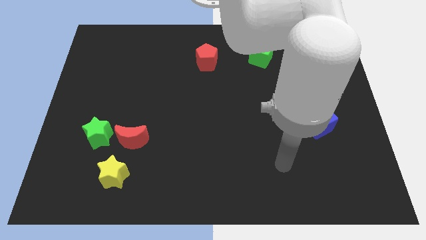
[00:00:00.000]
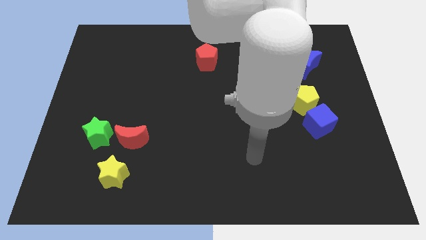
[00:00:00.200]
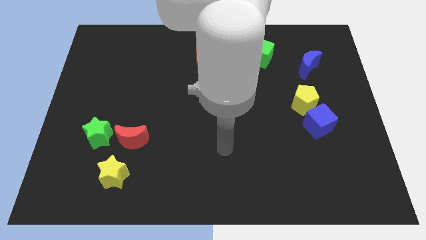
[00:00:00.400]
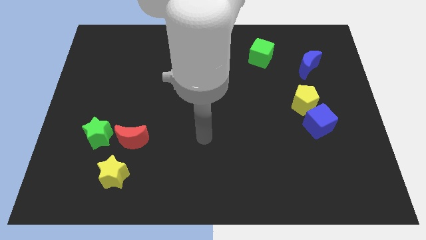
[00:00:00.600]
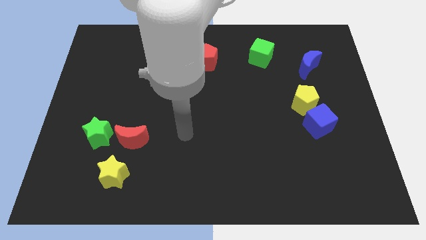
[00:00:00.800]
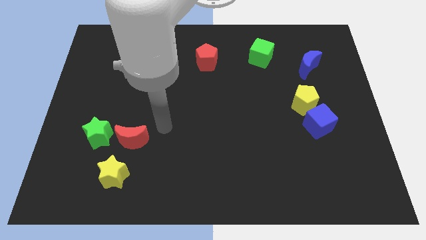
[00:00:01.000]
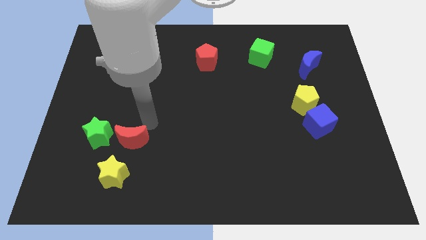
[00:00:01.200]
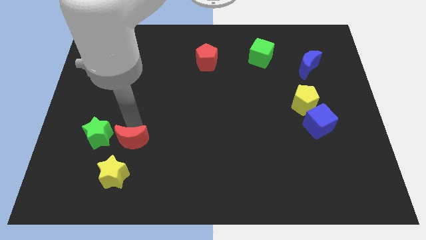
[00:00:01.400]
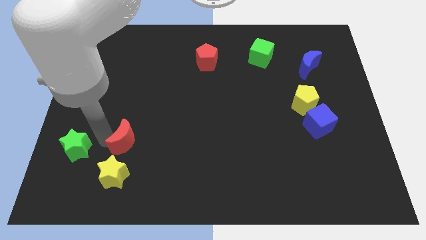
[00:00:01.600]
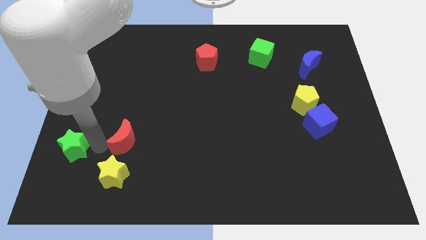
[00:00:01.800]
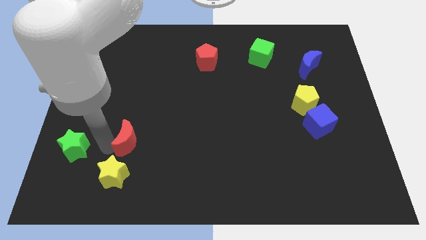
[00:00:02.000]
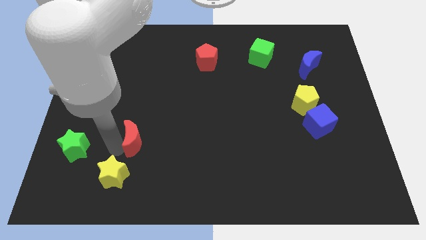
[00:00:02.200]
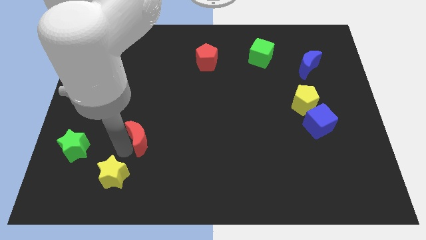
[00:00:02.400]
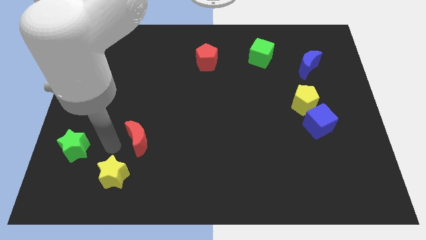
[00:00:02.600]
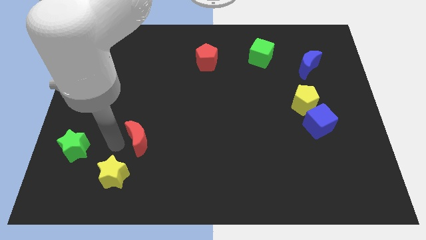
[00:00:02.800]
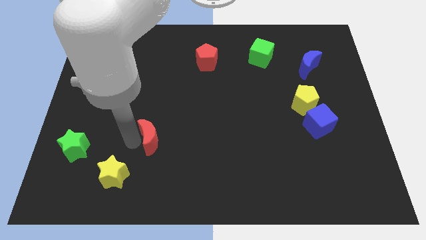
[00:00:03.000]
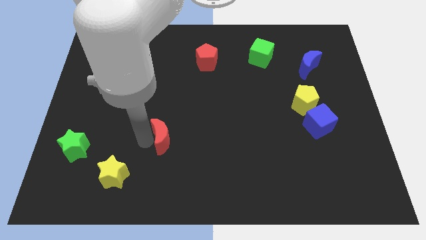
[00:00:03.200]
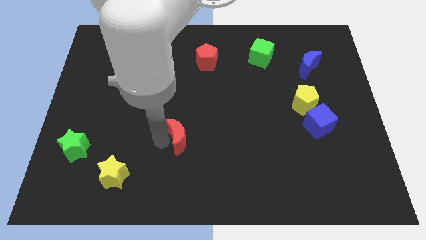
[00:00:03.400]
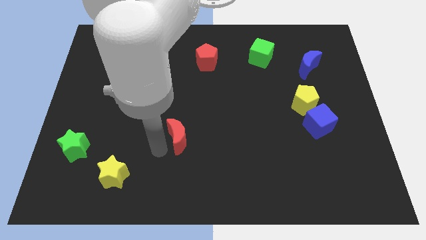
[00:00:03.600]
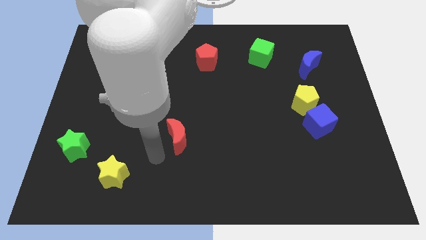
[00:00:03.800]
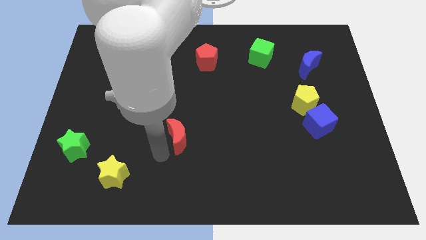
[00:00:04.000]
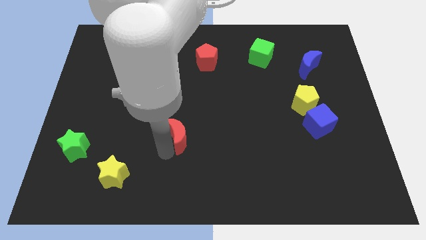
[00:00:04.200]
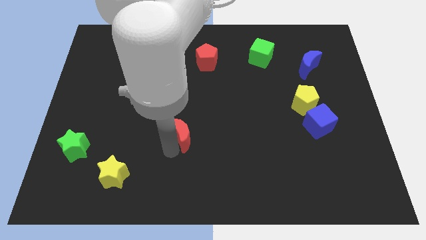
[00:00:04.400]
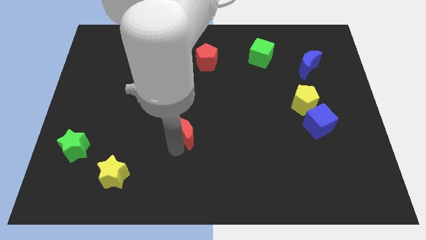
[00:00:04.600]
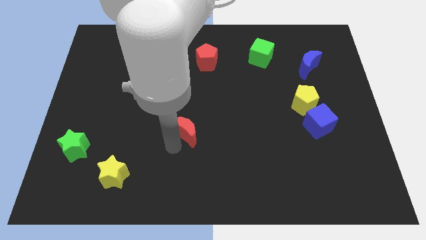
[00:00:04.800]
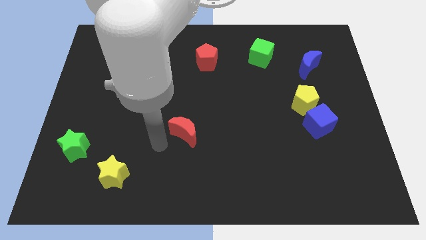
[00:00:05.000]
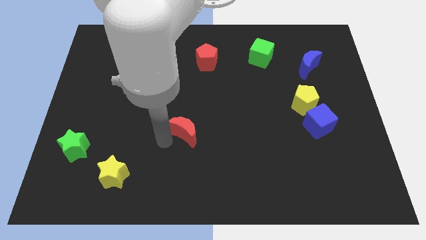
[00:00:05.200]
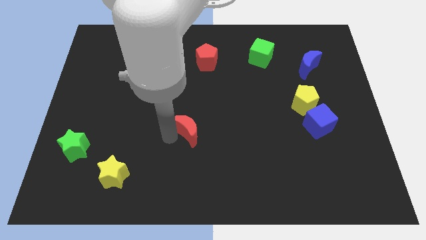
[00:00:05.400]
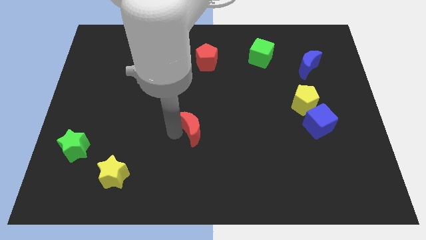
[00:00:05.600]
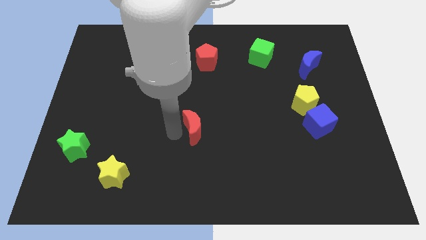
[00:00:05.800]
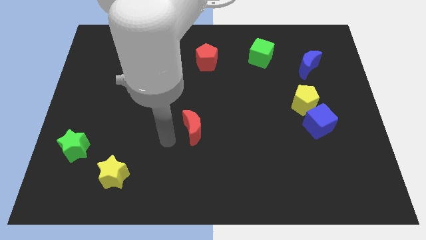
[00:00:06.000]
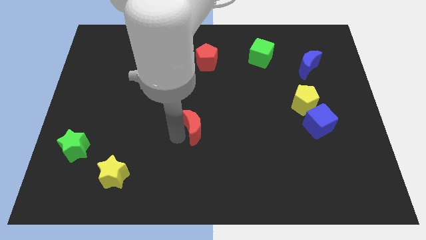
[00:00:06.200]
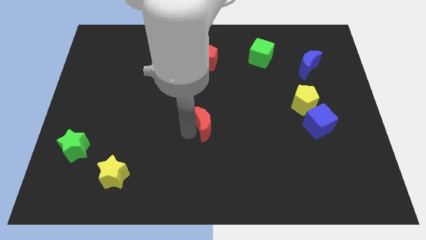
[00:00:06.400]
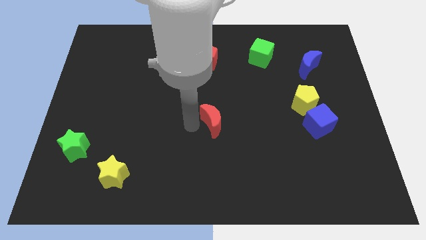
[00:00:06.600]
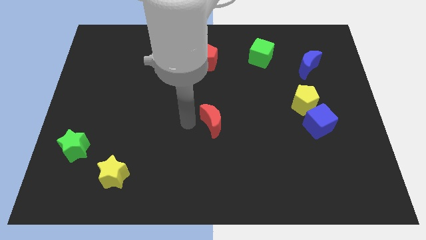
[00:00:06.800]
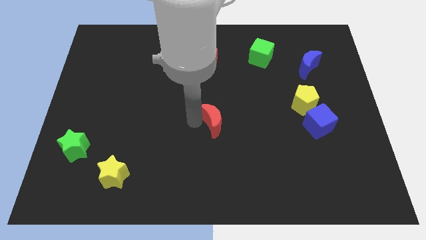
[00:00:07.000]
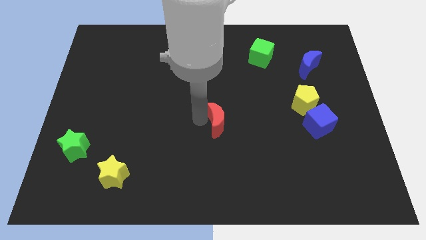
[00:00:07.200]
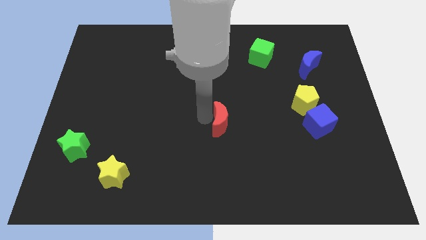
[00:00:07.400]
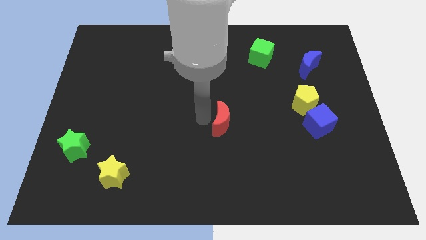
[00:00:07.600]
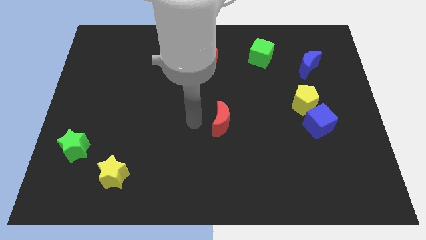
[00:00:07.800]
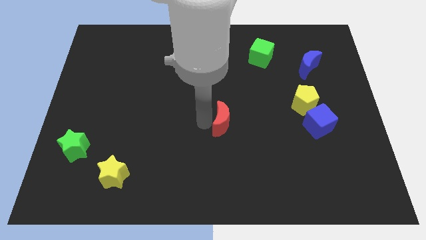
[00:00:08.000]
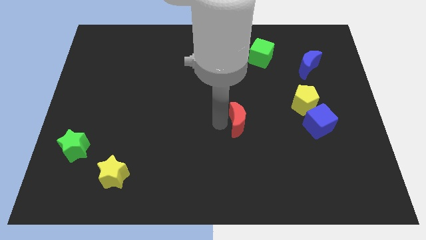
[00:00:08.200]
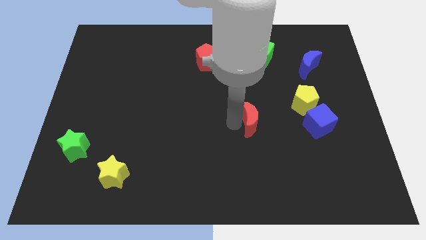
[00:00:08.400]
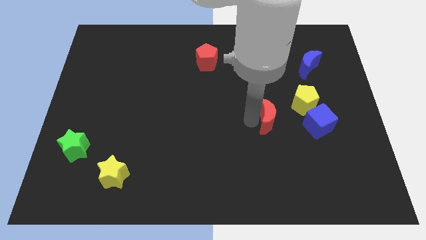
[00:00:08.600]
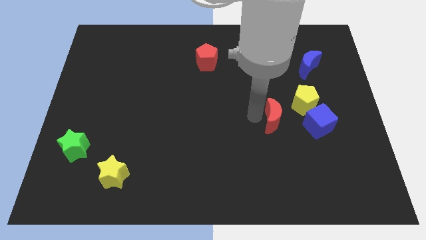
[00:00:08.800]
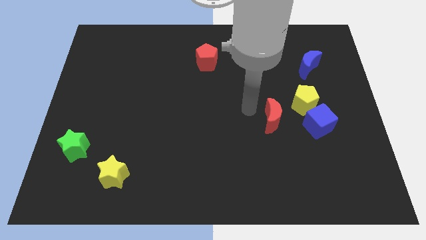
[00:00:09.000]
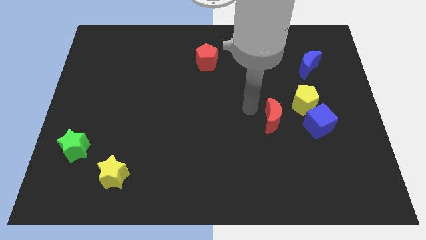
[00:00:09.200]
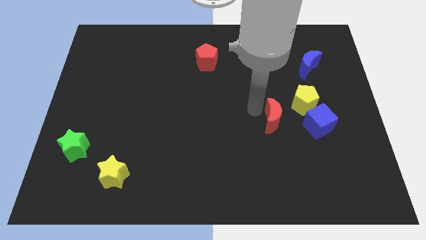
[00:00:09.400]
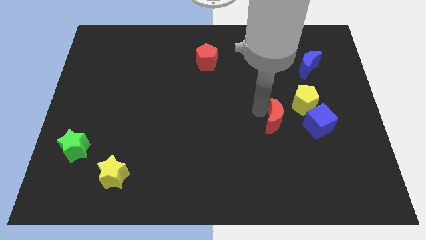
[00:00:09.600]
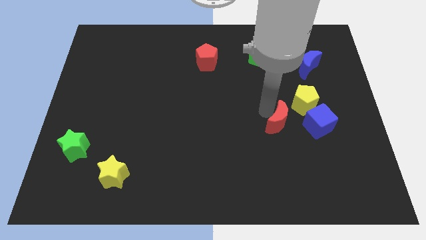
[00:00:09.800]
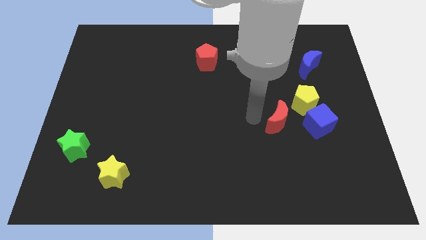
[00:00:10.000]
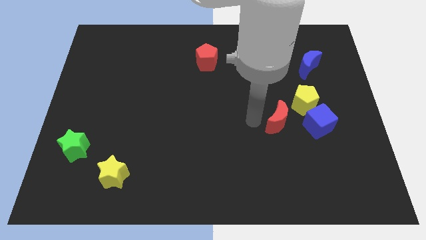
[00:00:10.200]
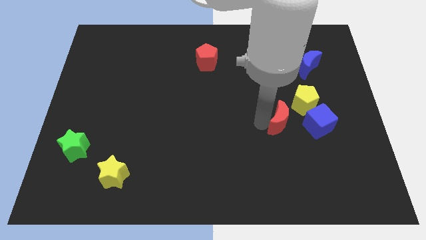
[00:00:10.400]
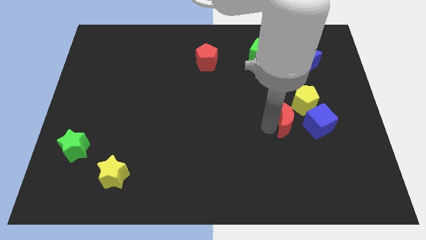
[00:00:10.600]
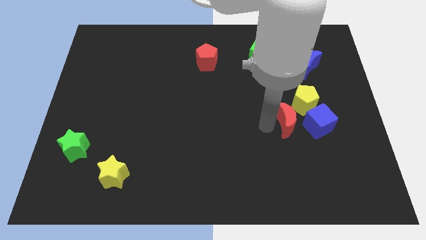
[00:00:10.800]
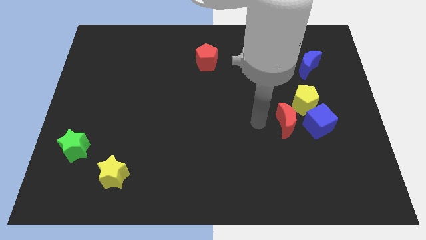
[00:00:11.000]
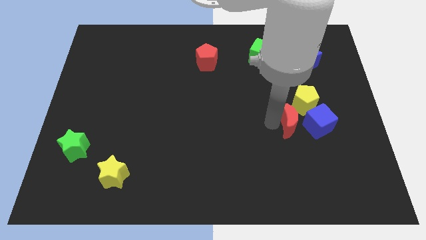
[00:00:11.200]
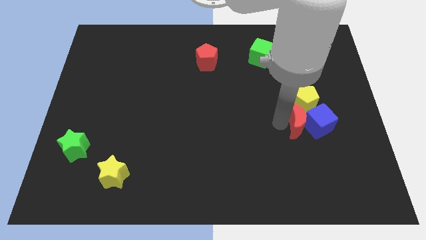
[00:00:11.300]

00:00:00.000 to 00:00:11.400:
push the red moon close to the blue cube

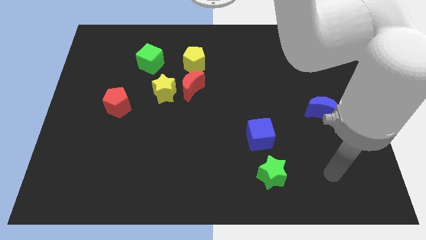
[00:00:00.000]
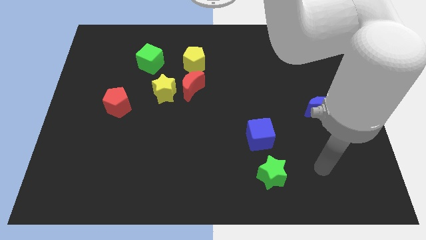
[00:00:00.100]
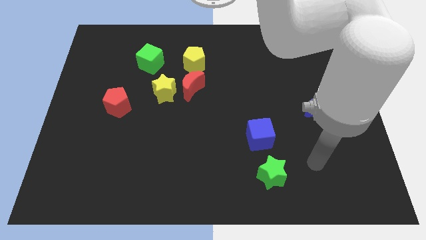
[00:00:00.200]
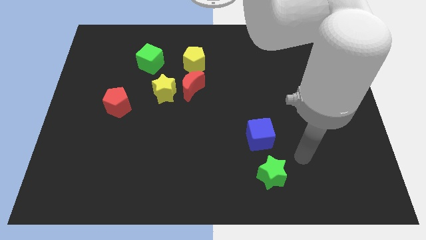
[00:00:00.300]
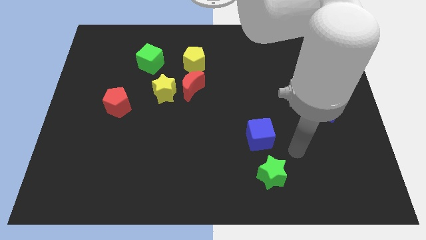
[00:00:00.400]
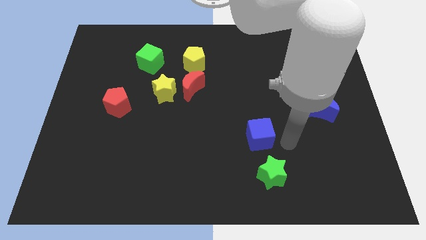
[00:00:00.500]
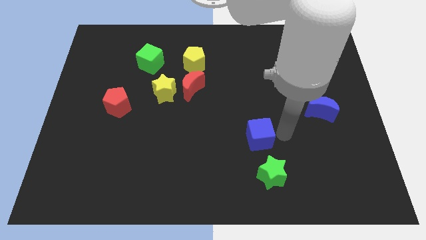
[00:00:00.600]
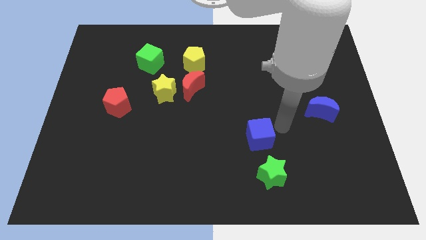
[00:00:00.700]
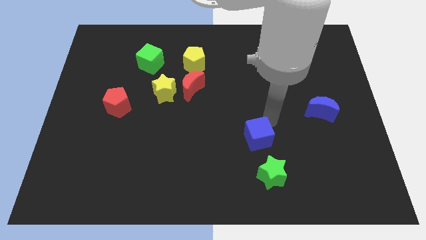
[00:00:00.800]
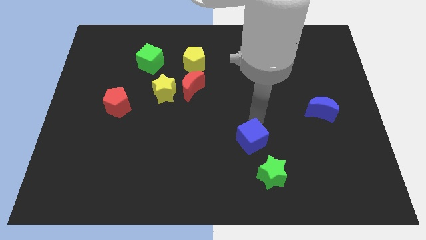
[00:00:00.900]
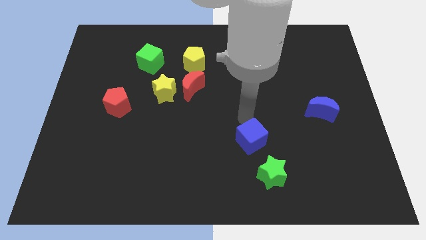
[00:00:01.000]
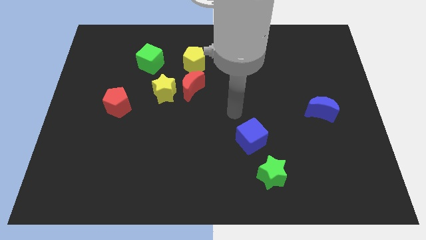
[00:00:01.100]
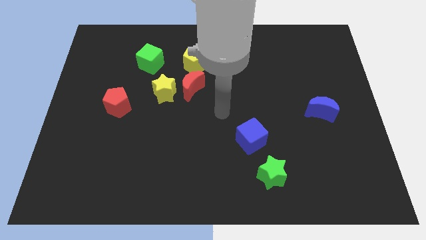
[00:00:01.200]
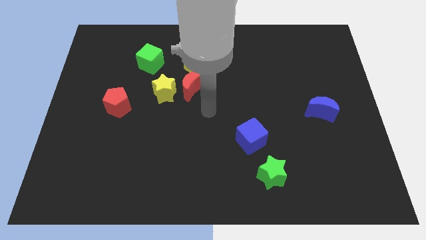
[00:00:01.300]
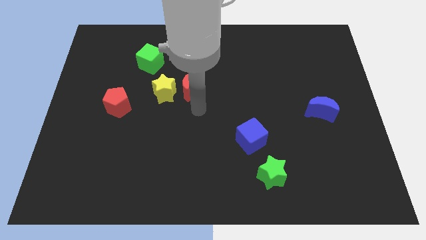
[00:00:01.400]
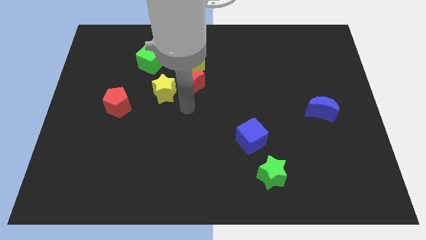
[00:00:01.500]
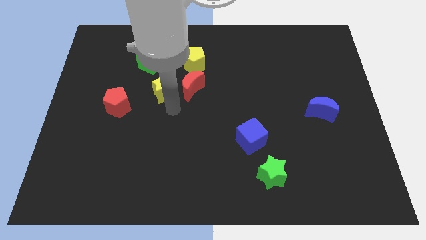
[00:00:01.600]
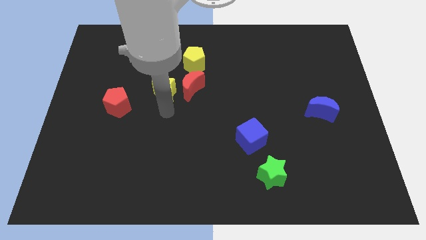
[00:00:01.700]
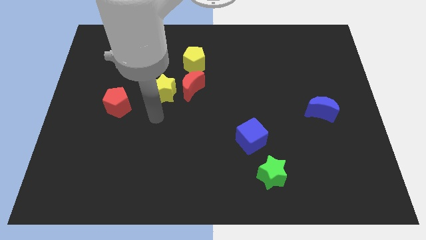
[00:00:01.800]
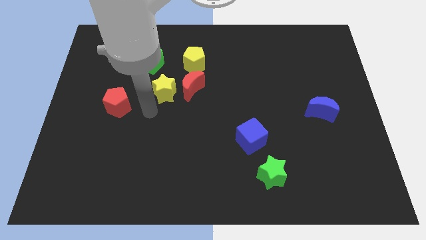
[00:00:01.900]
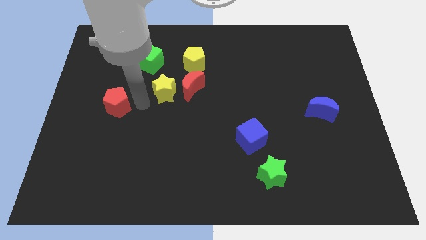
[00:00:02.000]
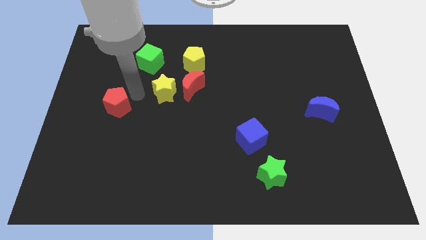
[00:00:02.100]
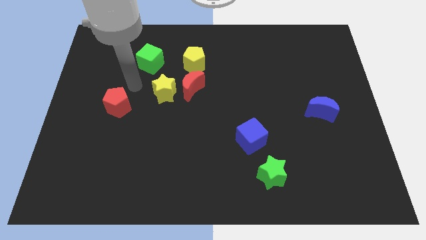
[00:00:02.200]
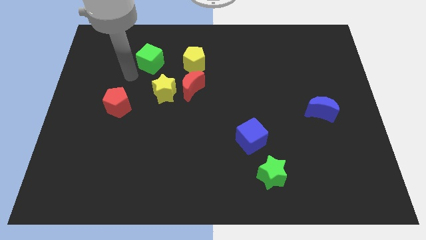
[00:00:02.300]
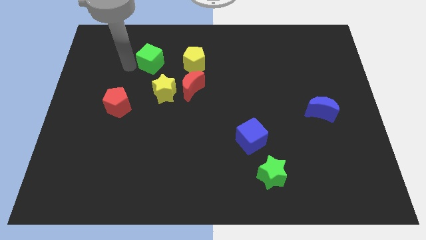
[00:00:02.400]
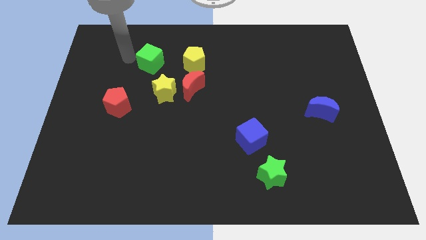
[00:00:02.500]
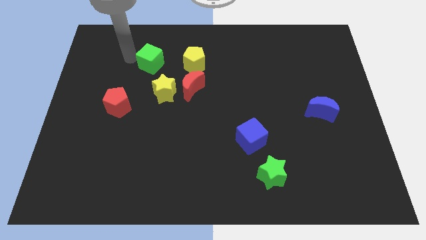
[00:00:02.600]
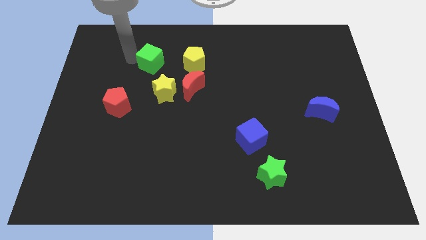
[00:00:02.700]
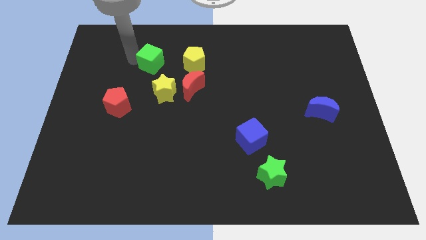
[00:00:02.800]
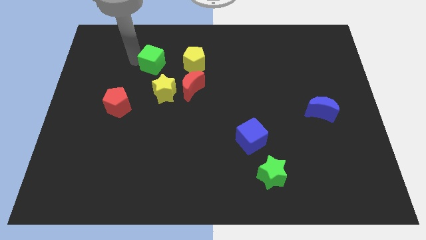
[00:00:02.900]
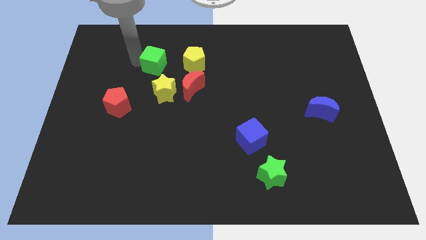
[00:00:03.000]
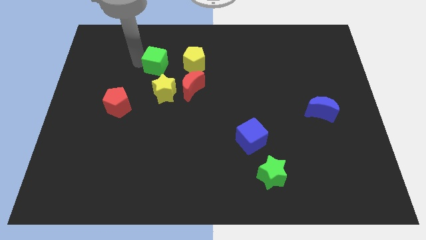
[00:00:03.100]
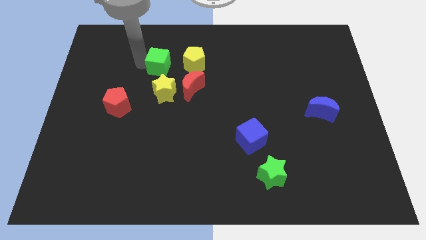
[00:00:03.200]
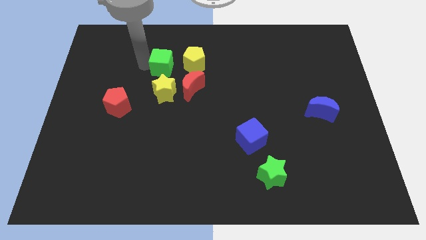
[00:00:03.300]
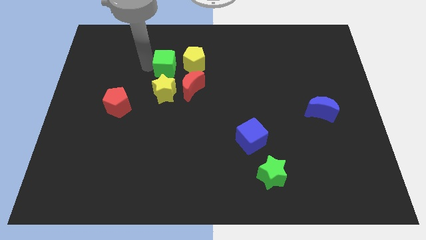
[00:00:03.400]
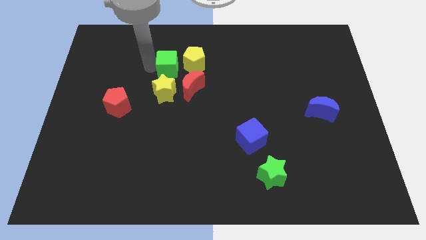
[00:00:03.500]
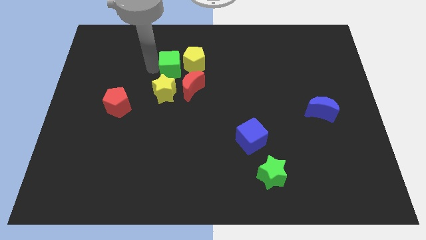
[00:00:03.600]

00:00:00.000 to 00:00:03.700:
put the green cube close to the yellow pentagon
